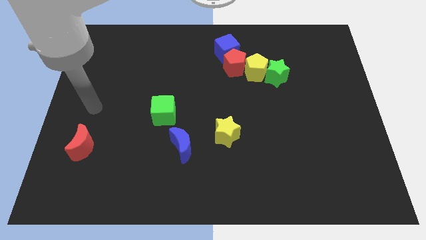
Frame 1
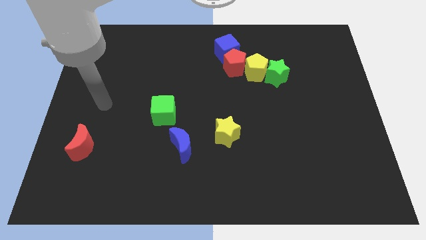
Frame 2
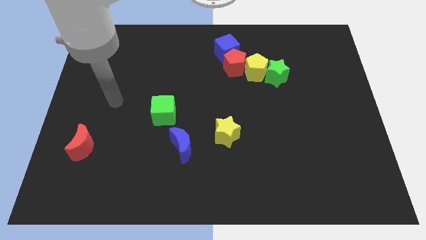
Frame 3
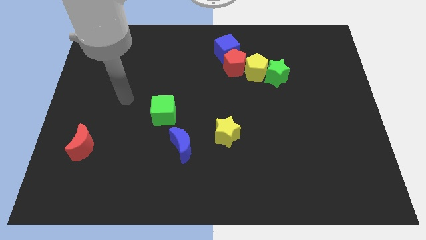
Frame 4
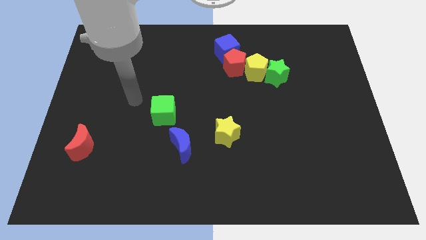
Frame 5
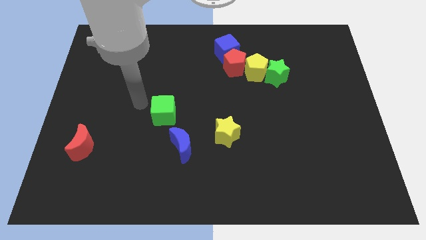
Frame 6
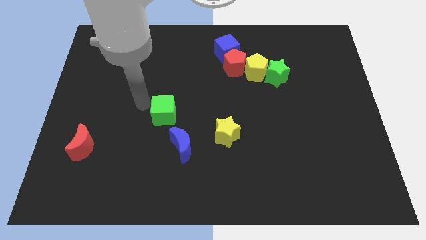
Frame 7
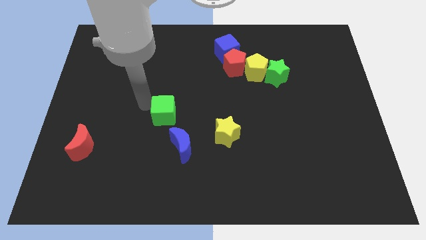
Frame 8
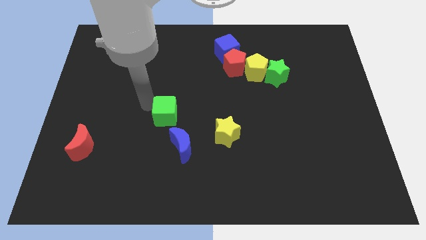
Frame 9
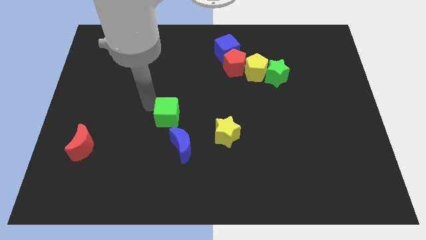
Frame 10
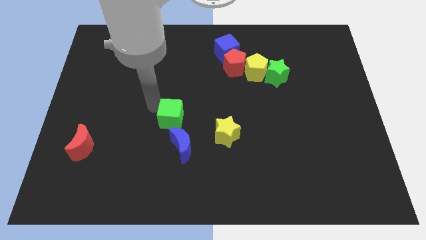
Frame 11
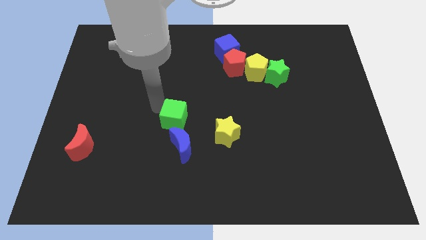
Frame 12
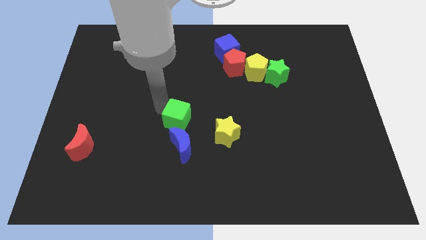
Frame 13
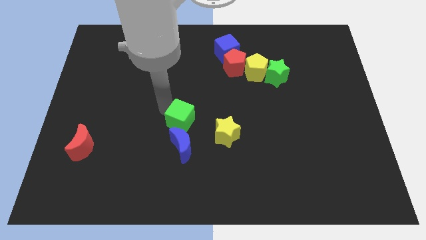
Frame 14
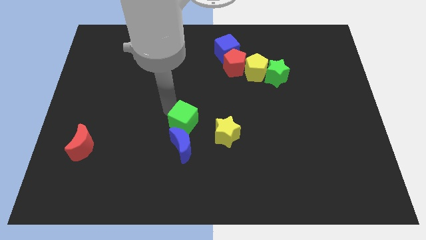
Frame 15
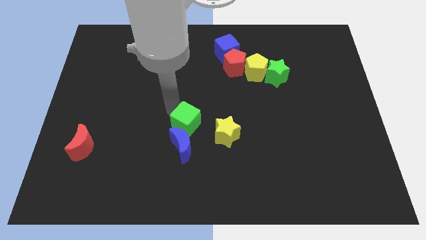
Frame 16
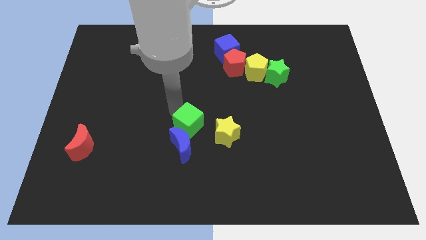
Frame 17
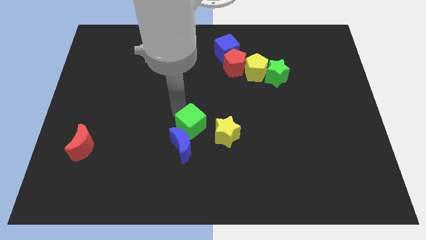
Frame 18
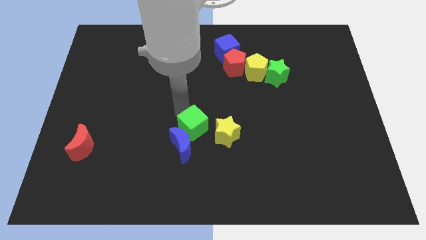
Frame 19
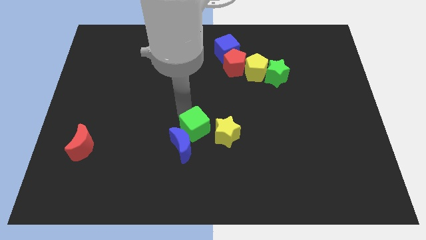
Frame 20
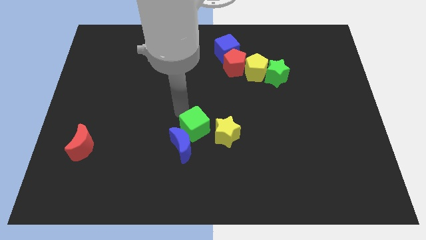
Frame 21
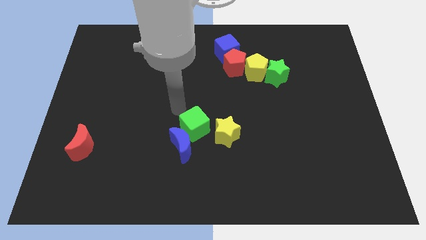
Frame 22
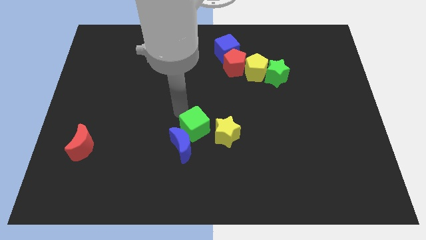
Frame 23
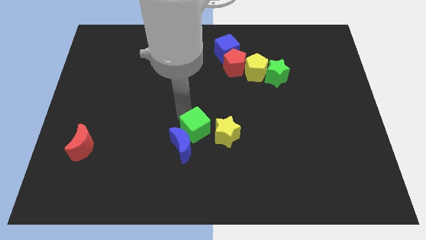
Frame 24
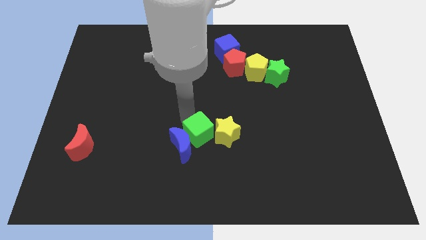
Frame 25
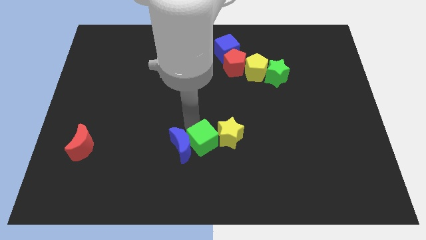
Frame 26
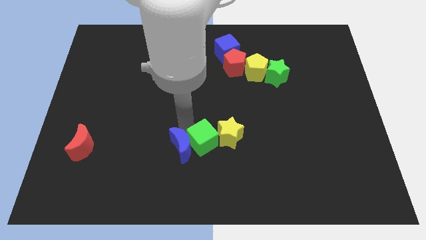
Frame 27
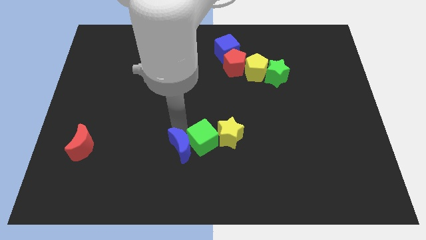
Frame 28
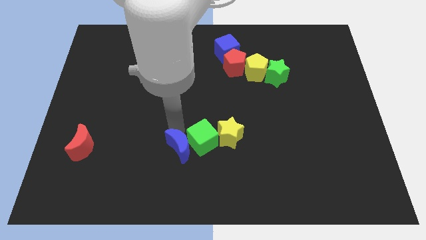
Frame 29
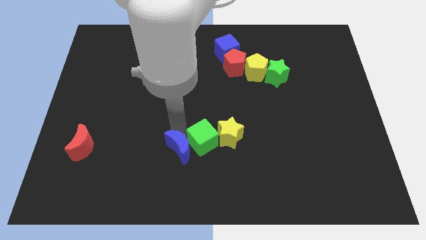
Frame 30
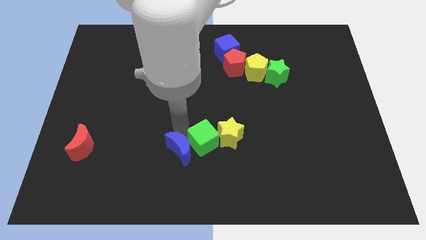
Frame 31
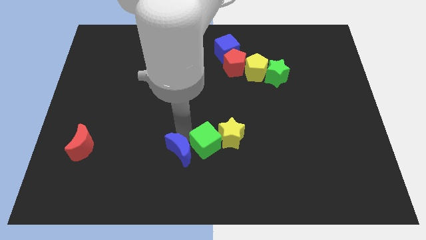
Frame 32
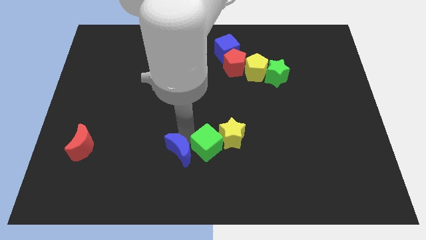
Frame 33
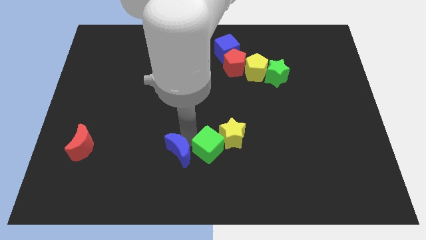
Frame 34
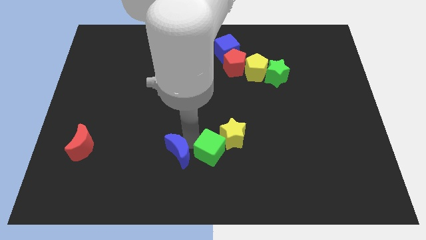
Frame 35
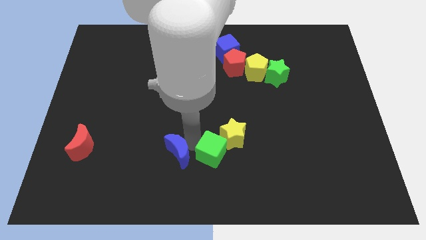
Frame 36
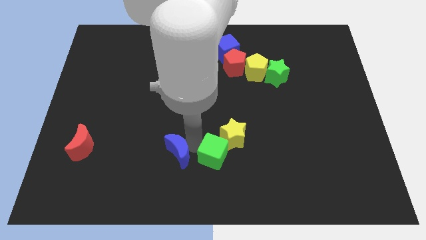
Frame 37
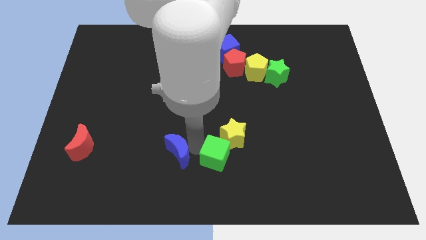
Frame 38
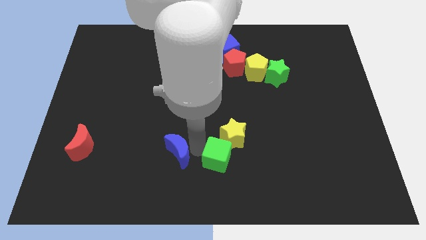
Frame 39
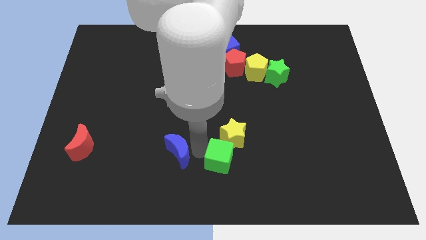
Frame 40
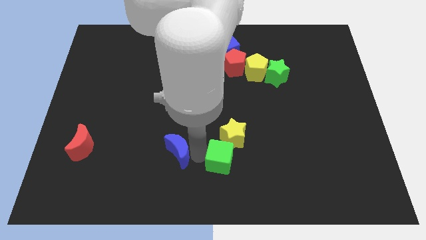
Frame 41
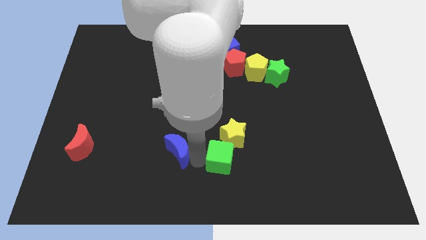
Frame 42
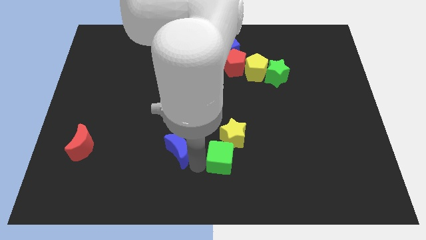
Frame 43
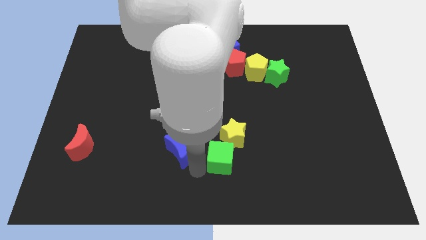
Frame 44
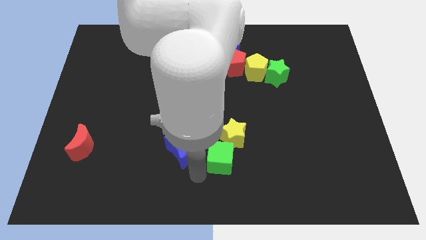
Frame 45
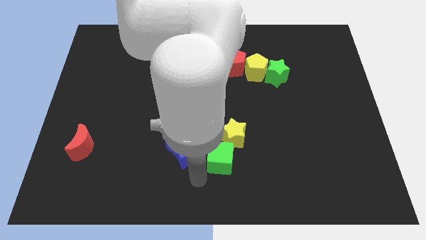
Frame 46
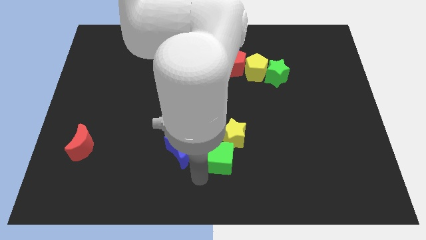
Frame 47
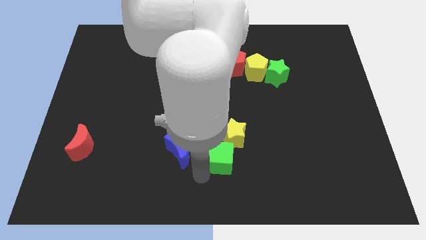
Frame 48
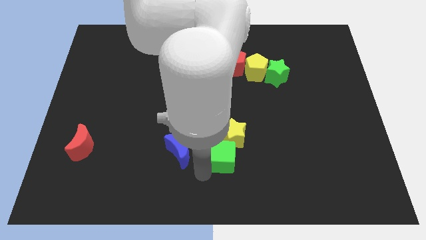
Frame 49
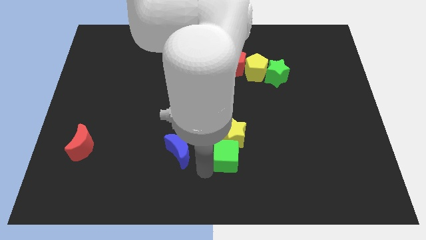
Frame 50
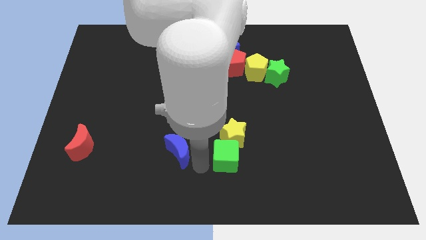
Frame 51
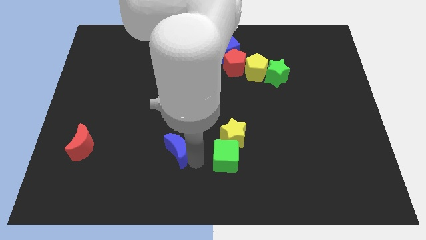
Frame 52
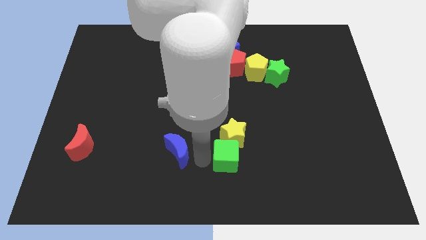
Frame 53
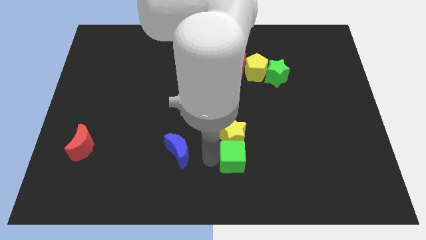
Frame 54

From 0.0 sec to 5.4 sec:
push the green cube diagonally down and to the right of the yellow star

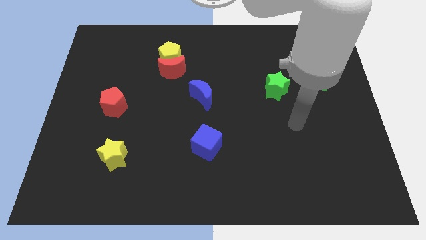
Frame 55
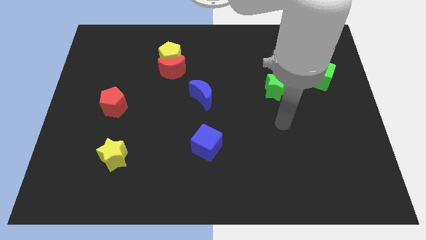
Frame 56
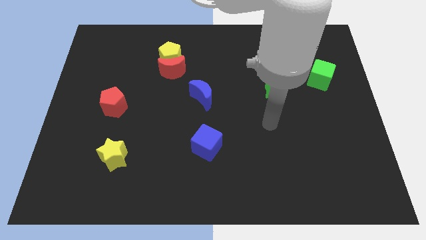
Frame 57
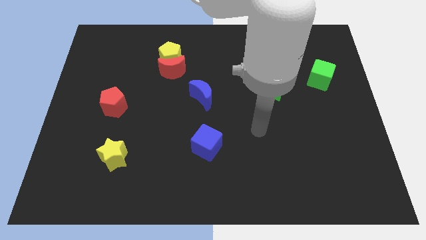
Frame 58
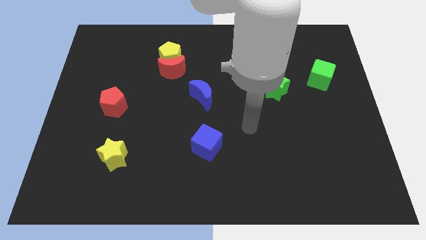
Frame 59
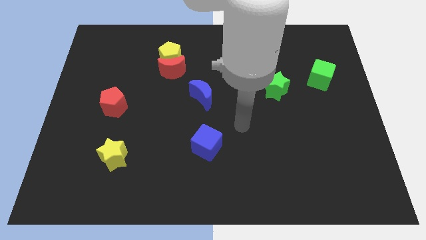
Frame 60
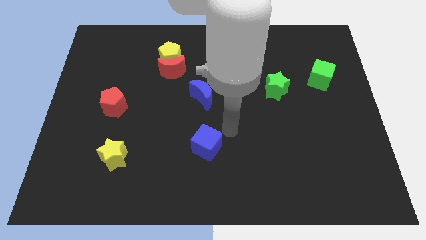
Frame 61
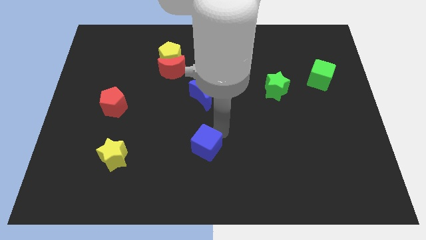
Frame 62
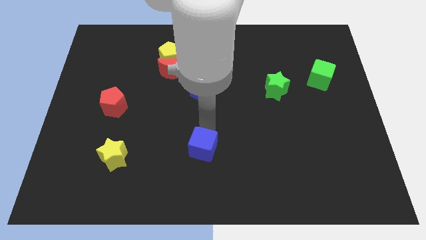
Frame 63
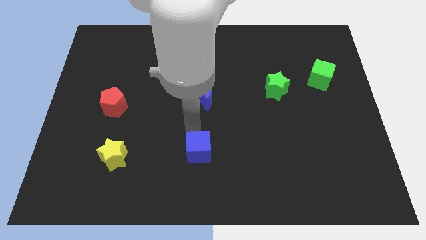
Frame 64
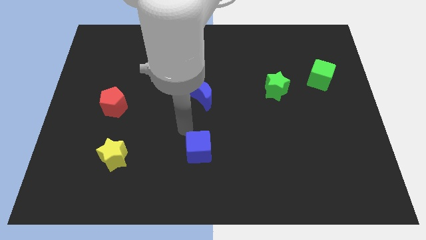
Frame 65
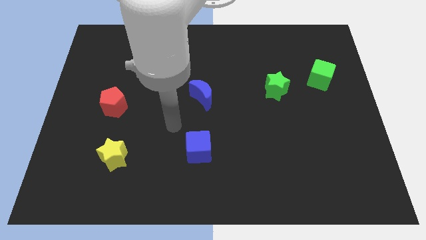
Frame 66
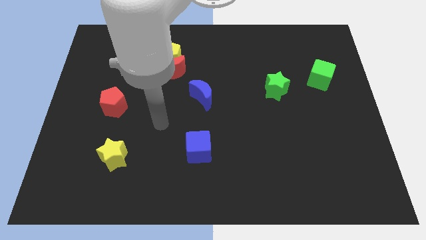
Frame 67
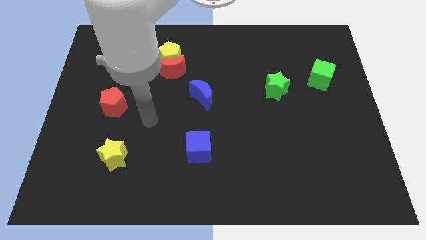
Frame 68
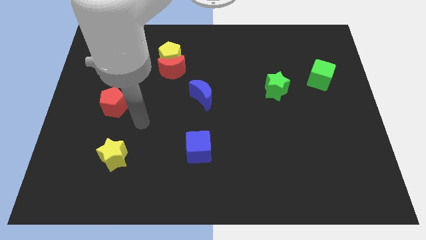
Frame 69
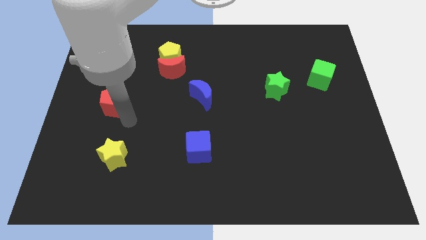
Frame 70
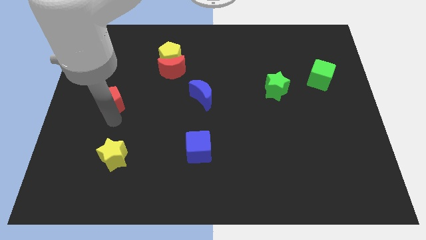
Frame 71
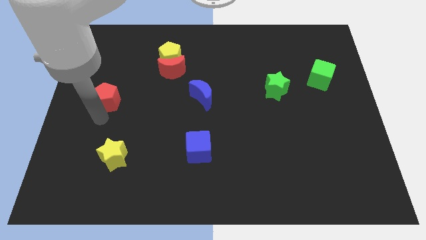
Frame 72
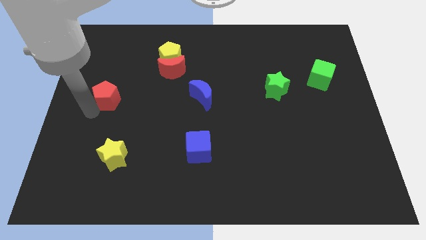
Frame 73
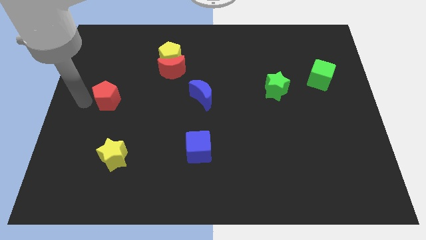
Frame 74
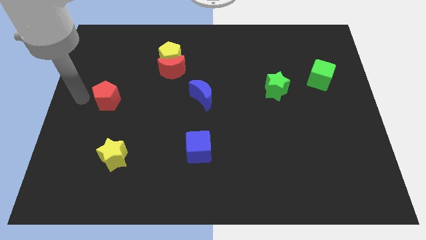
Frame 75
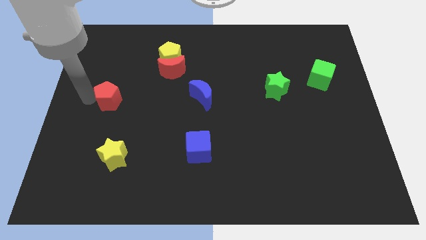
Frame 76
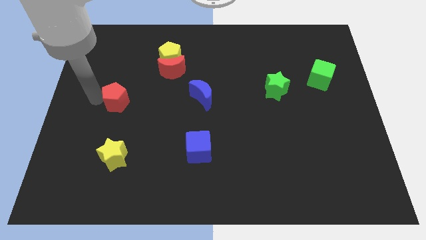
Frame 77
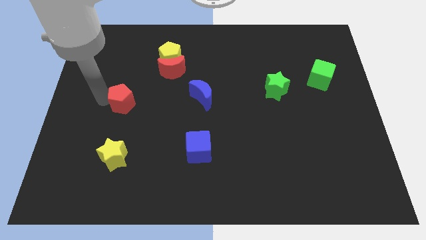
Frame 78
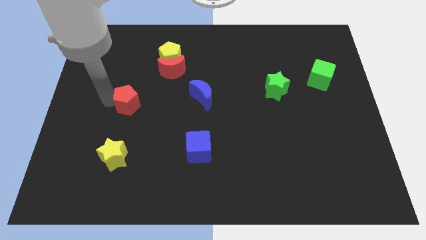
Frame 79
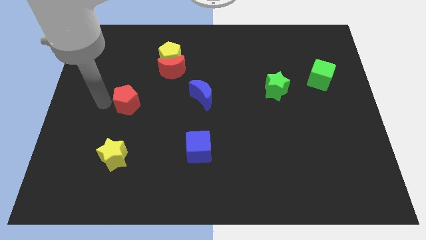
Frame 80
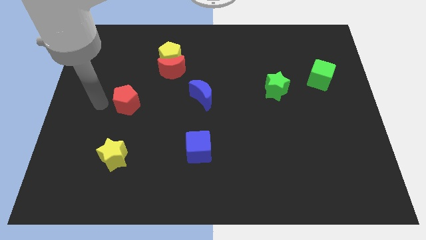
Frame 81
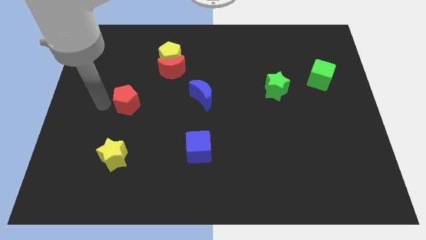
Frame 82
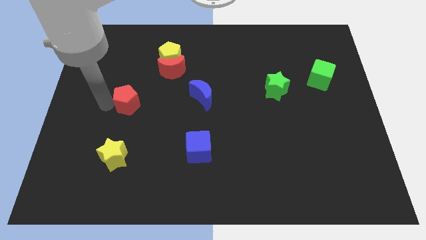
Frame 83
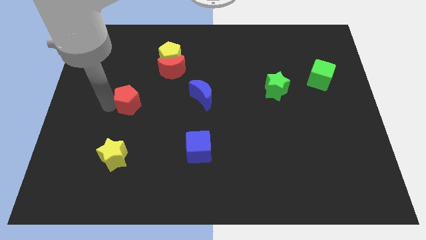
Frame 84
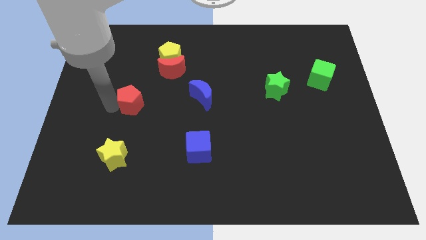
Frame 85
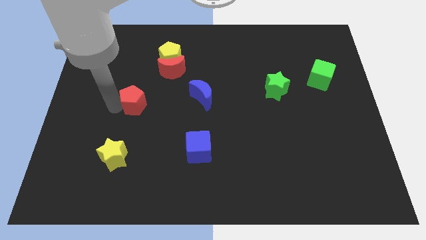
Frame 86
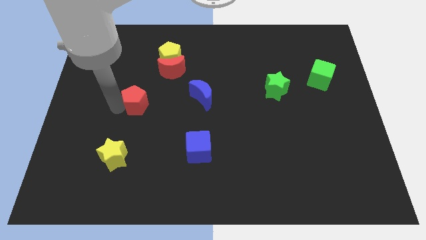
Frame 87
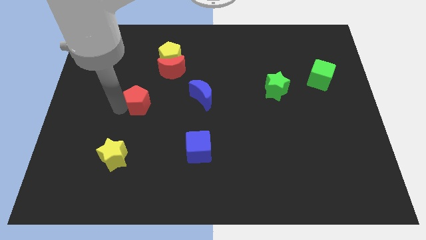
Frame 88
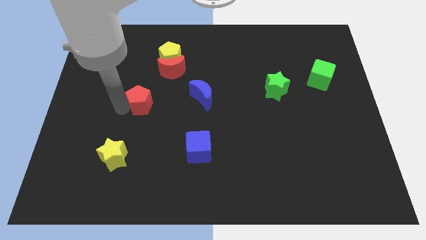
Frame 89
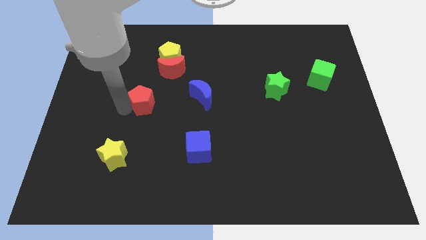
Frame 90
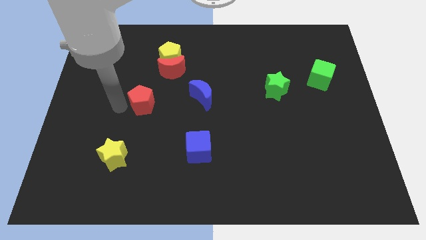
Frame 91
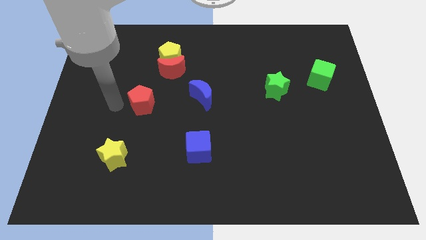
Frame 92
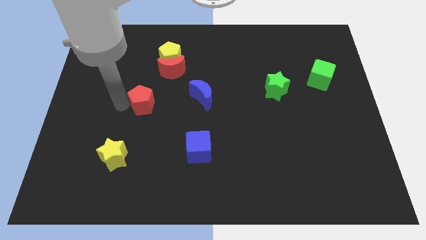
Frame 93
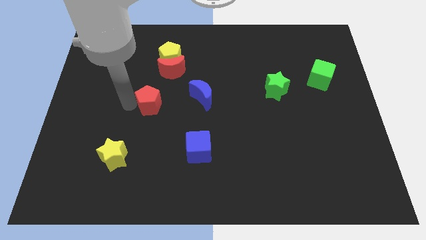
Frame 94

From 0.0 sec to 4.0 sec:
move the red pentagon below the red moon
